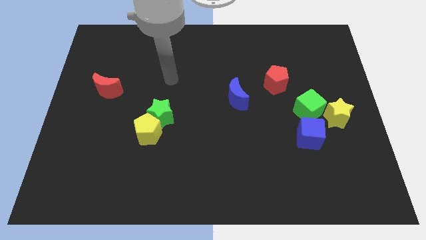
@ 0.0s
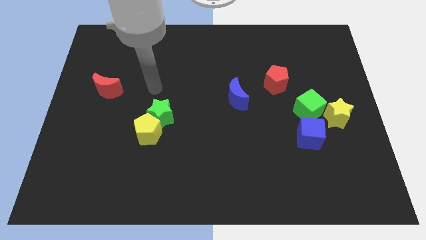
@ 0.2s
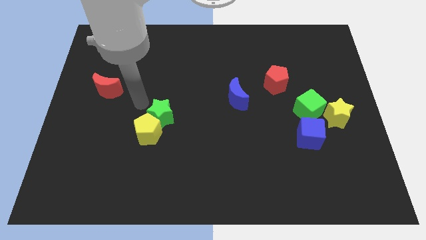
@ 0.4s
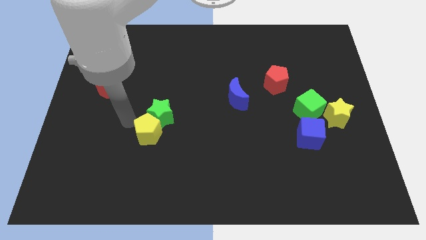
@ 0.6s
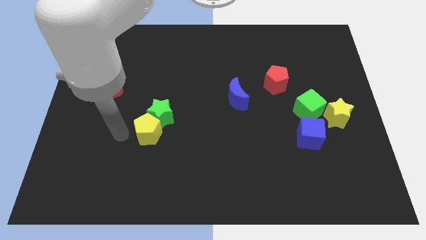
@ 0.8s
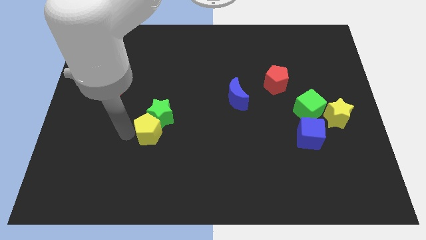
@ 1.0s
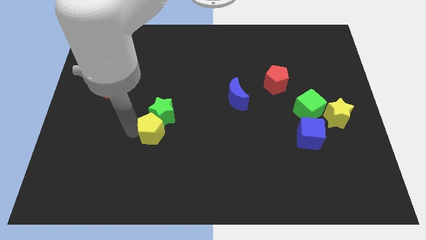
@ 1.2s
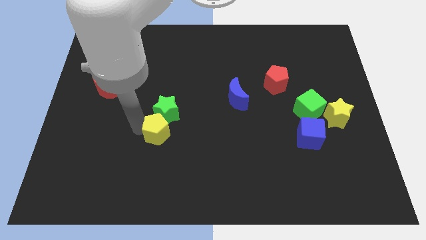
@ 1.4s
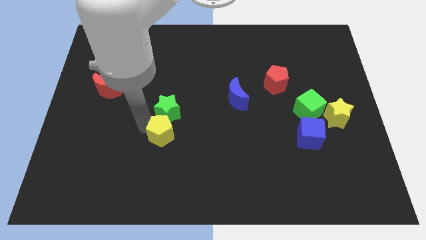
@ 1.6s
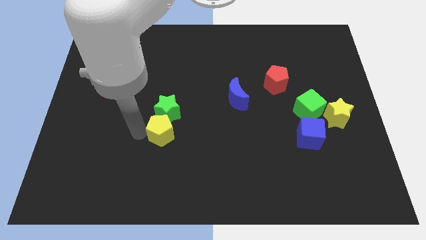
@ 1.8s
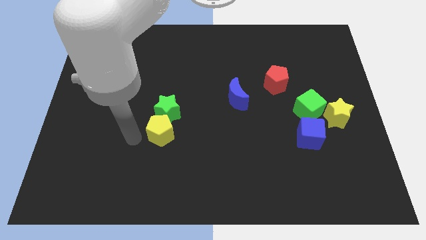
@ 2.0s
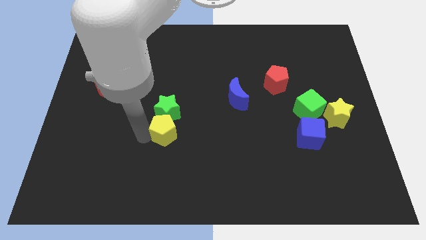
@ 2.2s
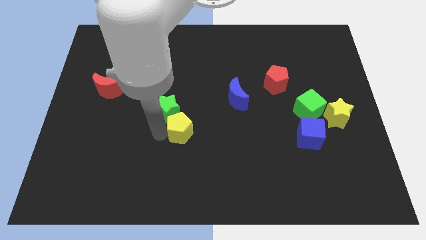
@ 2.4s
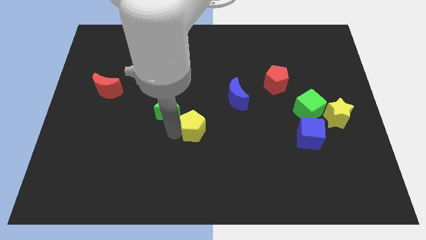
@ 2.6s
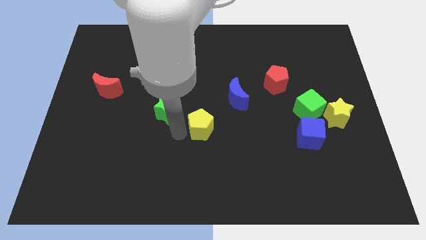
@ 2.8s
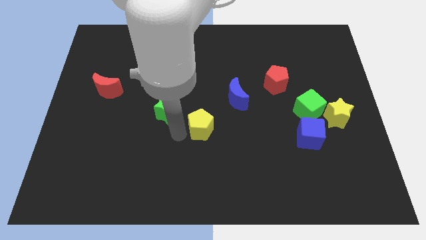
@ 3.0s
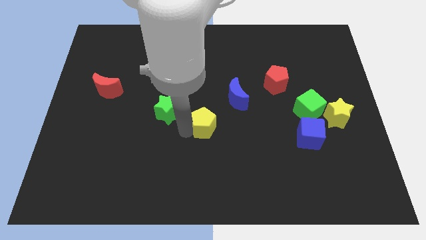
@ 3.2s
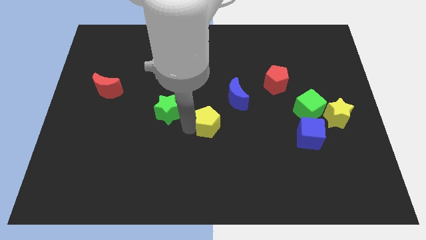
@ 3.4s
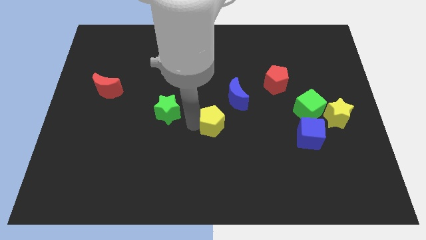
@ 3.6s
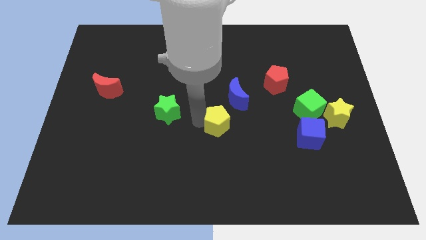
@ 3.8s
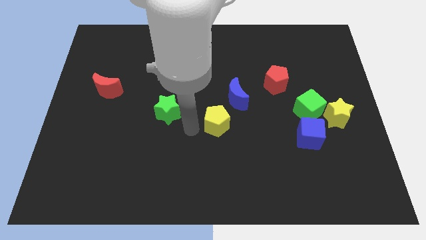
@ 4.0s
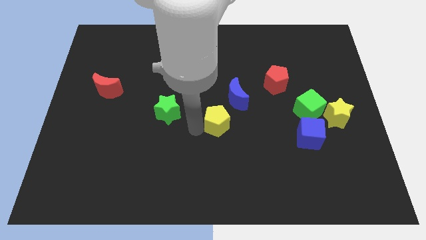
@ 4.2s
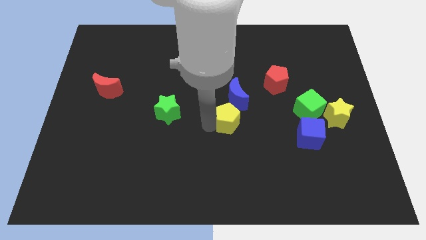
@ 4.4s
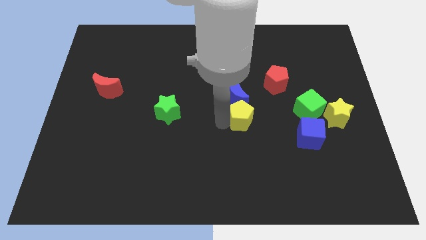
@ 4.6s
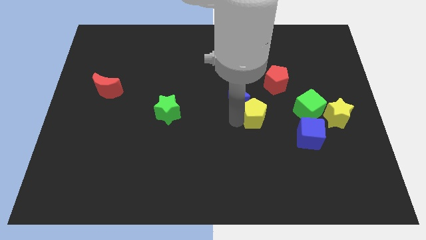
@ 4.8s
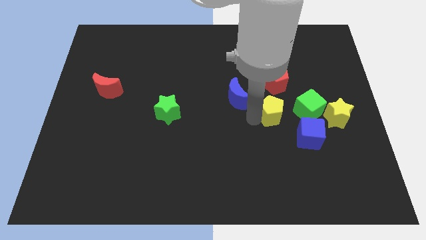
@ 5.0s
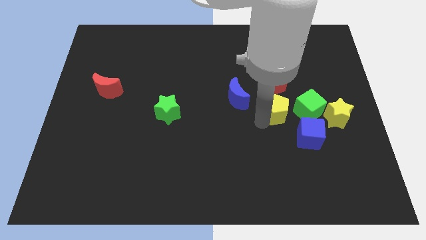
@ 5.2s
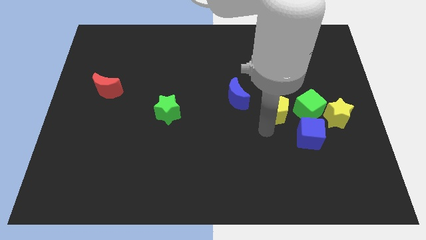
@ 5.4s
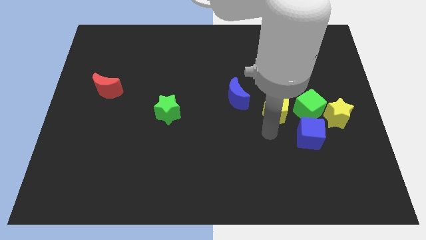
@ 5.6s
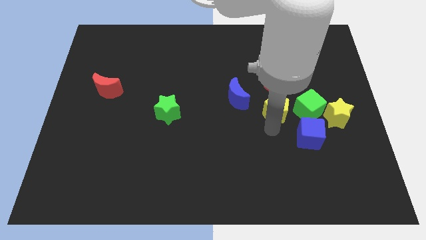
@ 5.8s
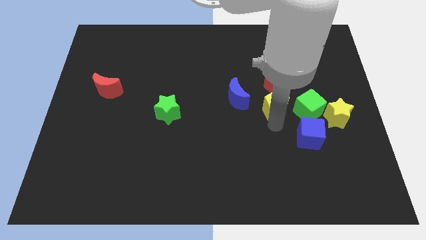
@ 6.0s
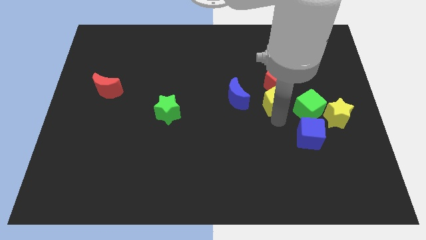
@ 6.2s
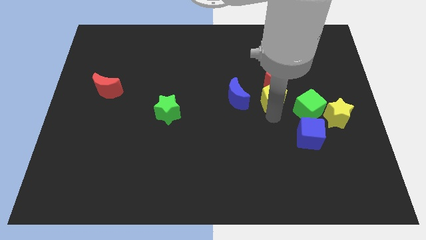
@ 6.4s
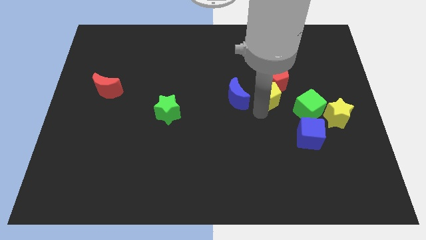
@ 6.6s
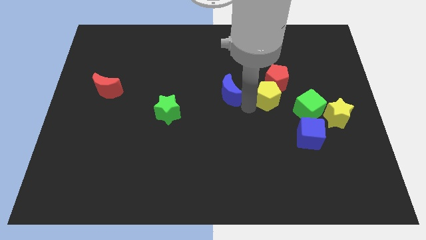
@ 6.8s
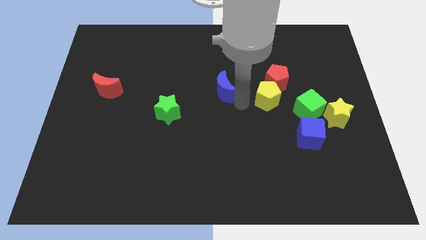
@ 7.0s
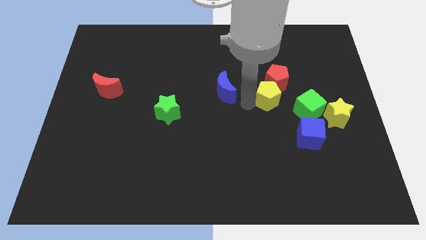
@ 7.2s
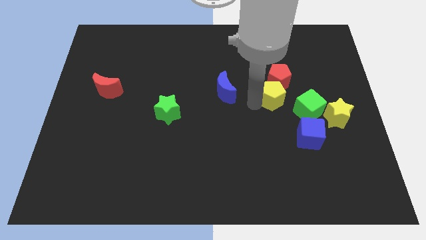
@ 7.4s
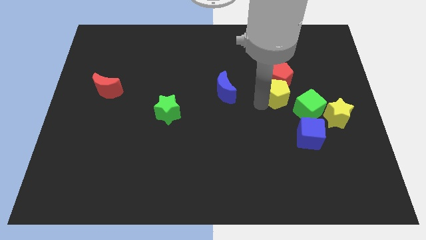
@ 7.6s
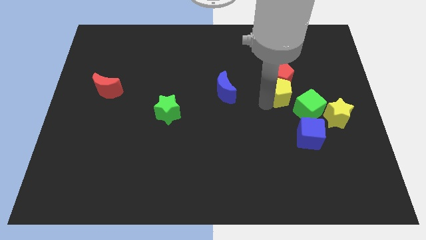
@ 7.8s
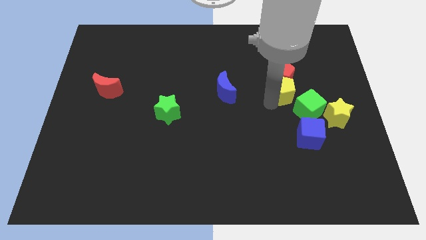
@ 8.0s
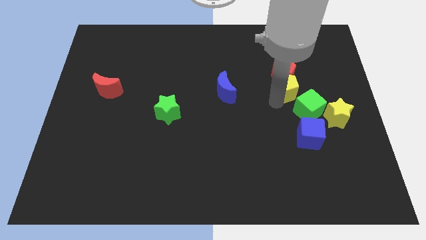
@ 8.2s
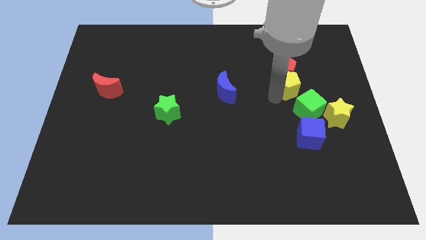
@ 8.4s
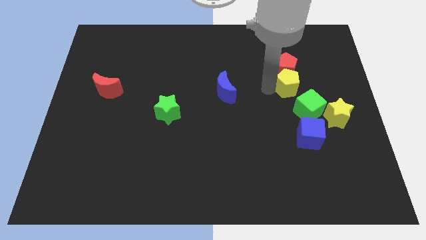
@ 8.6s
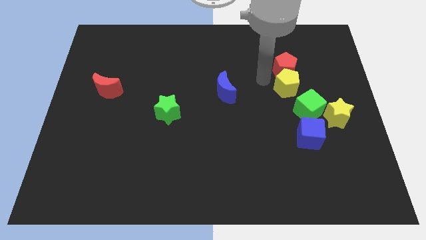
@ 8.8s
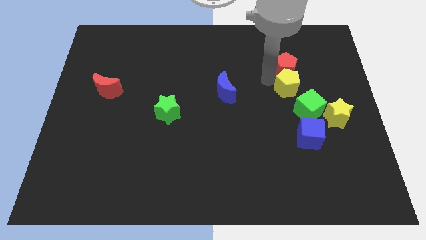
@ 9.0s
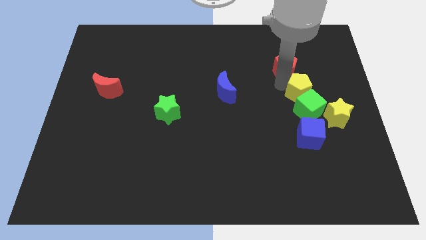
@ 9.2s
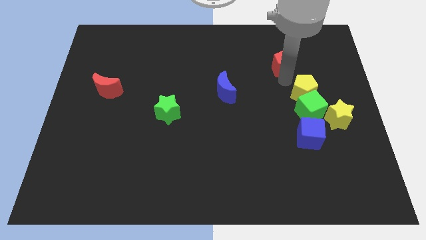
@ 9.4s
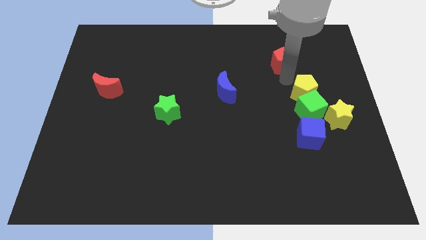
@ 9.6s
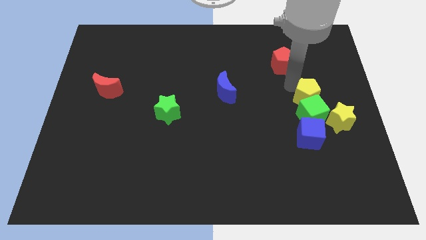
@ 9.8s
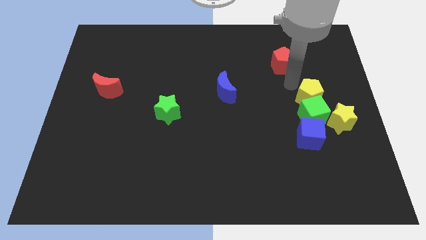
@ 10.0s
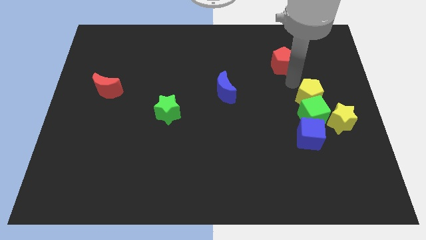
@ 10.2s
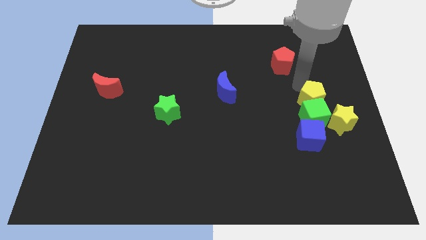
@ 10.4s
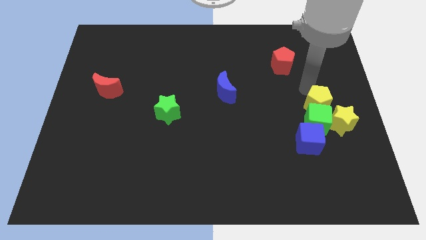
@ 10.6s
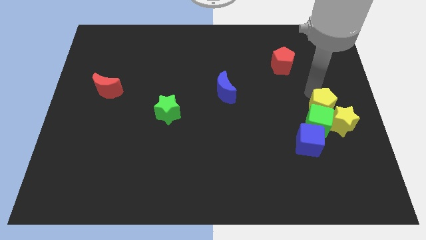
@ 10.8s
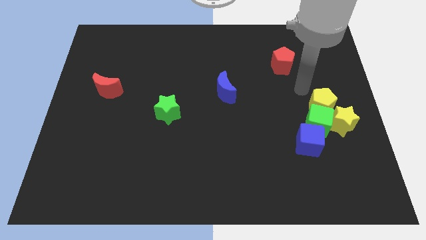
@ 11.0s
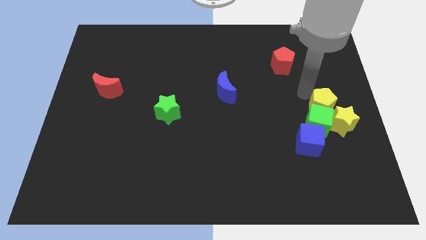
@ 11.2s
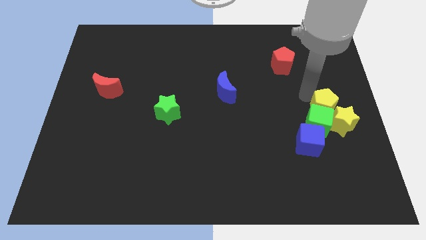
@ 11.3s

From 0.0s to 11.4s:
move the yellow pentagon to the yellow star

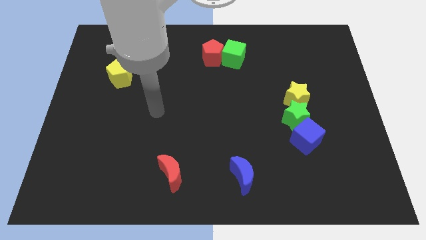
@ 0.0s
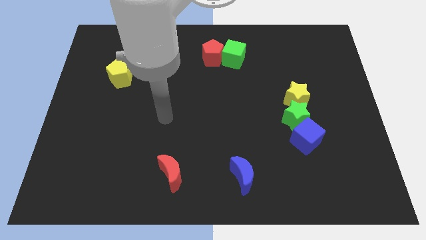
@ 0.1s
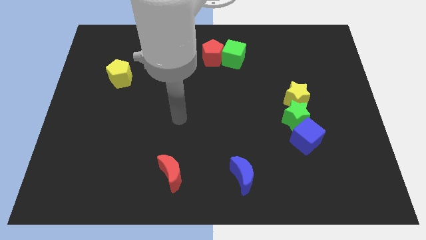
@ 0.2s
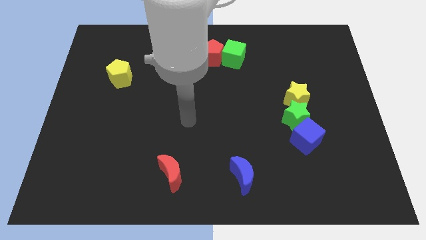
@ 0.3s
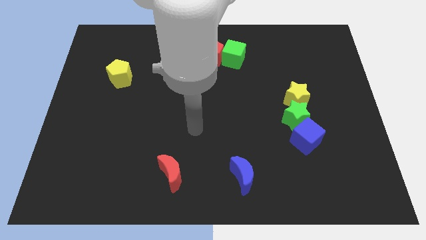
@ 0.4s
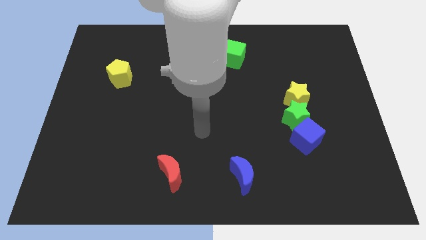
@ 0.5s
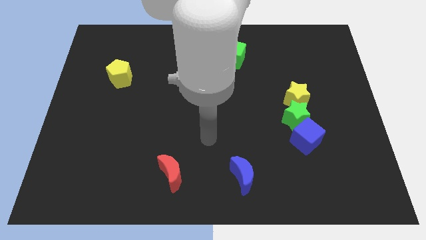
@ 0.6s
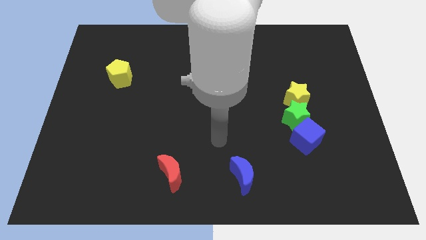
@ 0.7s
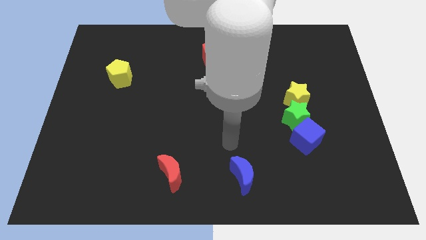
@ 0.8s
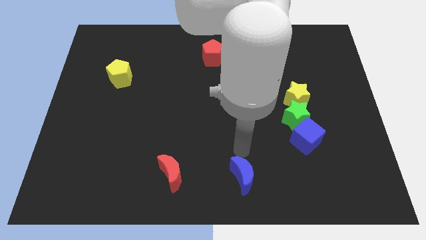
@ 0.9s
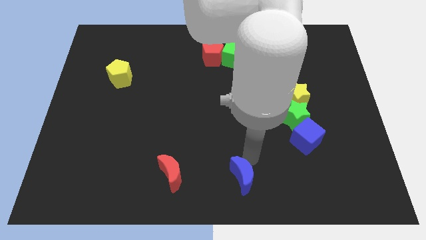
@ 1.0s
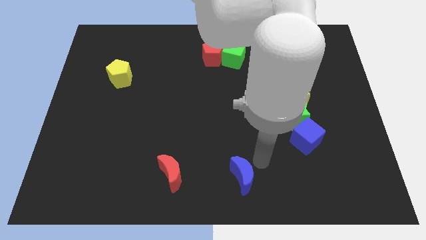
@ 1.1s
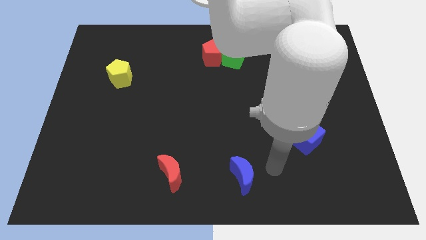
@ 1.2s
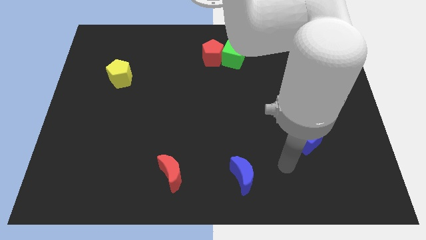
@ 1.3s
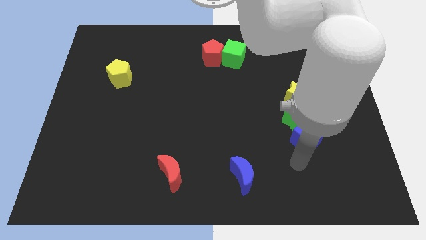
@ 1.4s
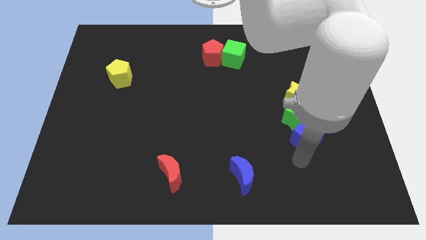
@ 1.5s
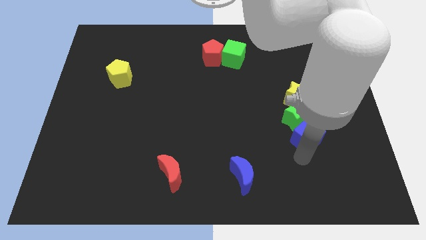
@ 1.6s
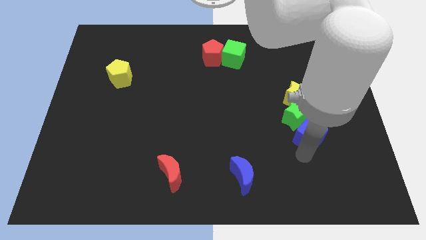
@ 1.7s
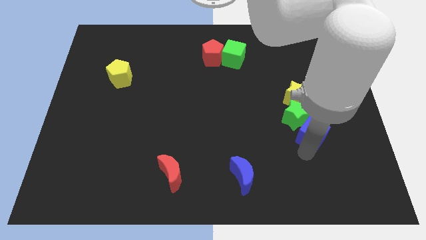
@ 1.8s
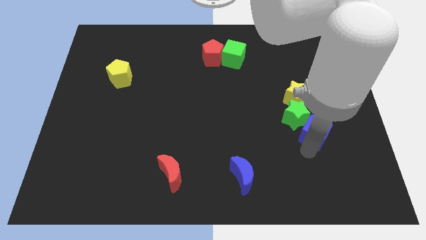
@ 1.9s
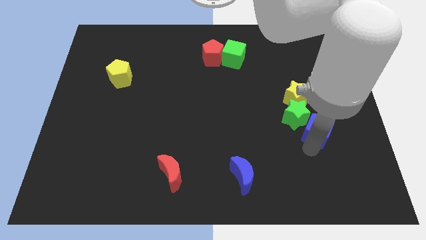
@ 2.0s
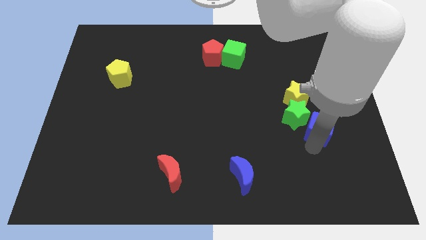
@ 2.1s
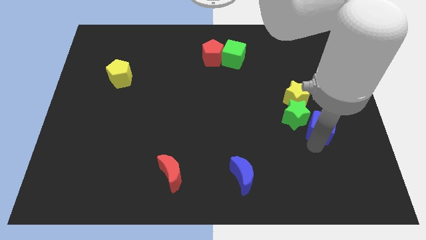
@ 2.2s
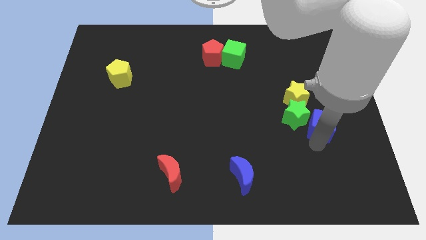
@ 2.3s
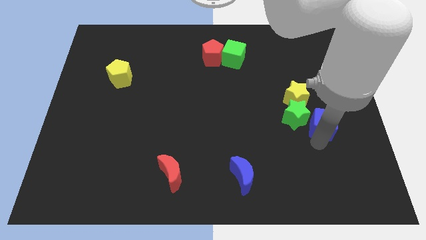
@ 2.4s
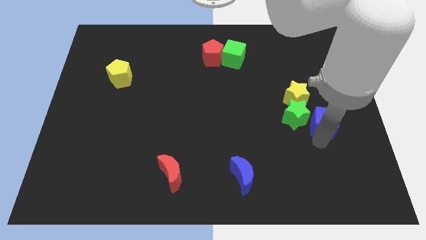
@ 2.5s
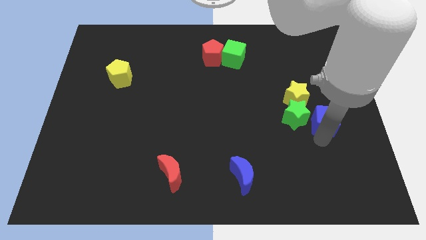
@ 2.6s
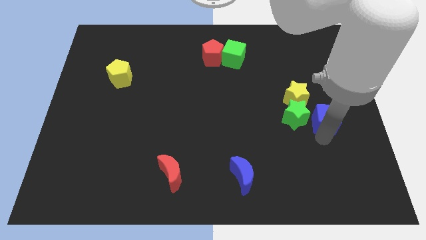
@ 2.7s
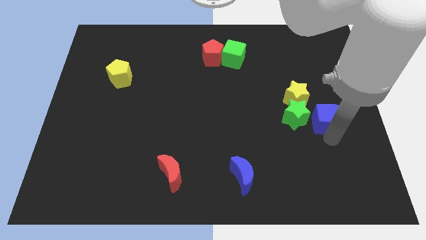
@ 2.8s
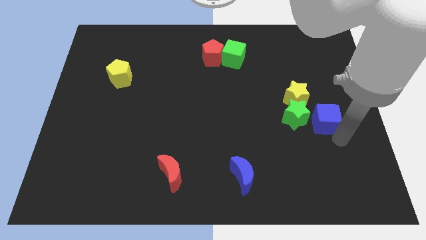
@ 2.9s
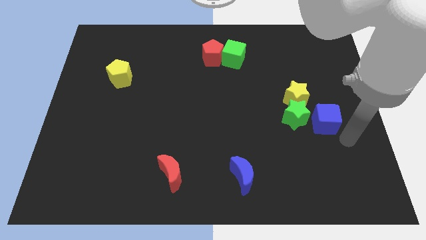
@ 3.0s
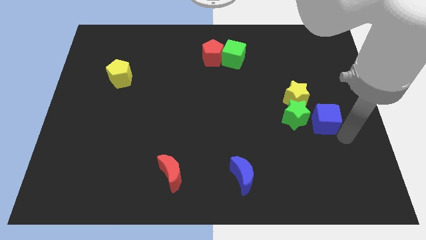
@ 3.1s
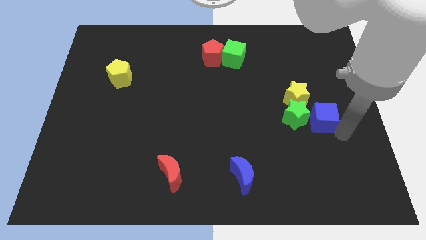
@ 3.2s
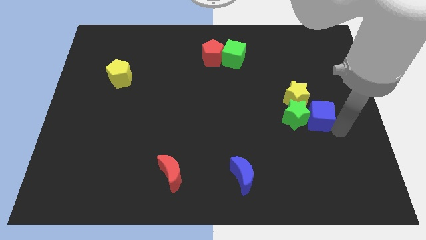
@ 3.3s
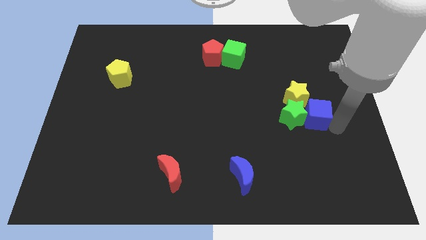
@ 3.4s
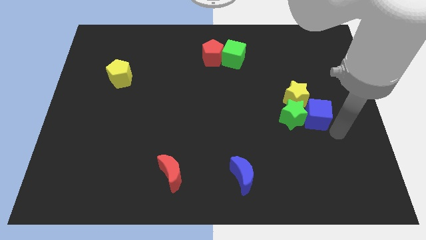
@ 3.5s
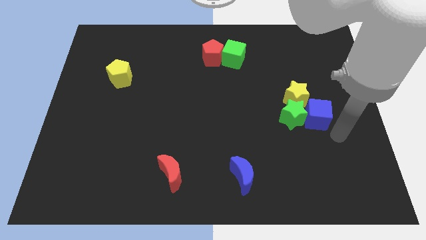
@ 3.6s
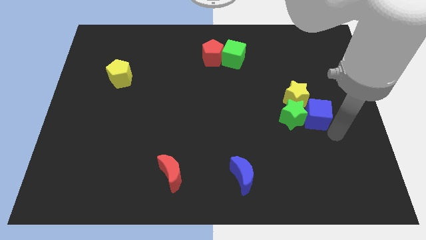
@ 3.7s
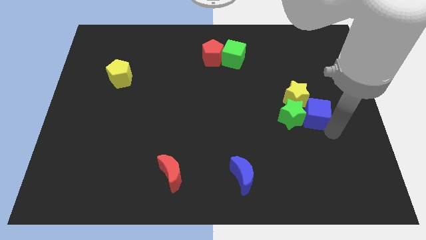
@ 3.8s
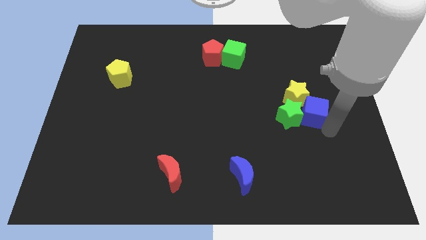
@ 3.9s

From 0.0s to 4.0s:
move the blue cube next to the yellow star
